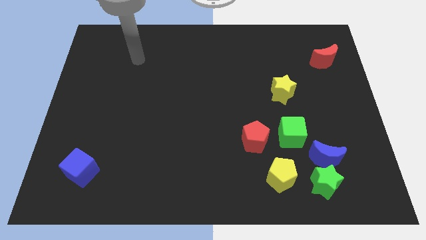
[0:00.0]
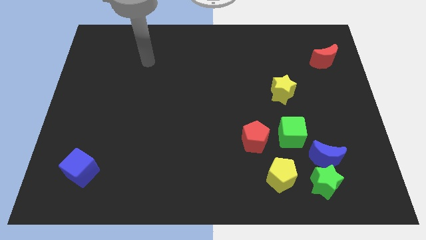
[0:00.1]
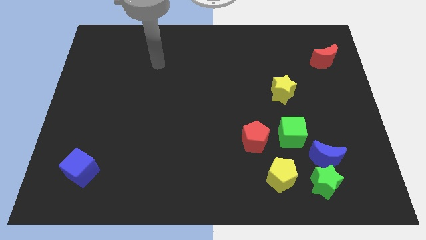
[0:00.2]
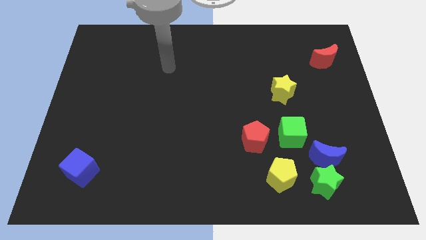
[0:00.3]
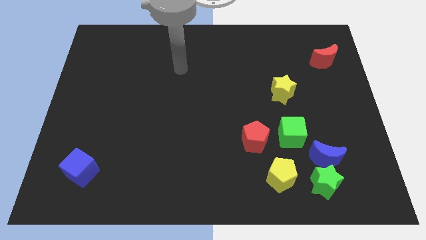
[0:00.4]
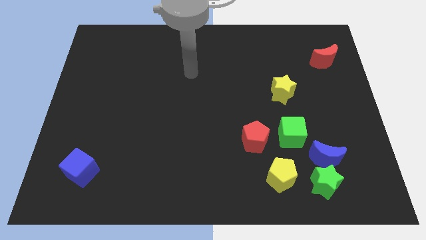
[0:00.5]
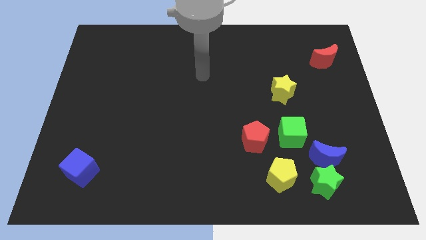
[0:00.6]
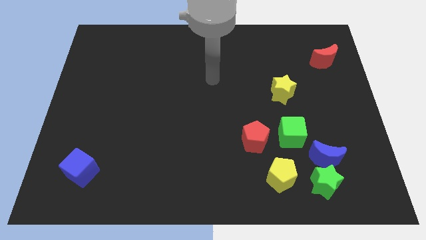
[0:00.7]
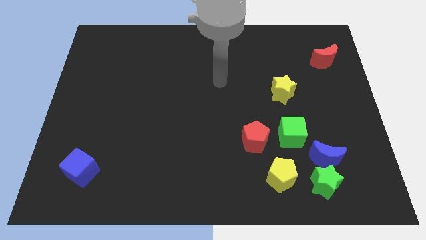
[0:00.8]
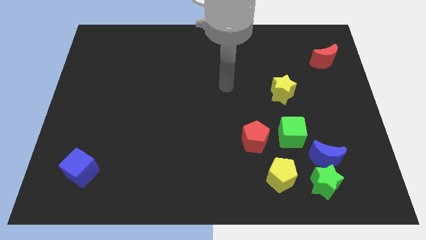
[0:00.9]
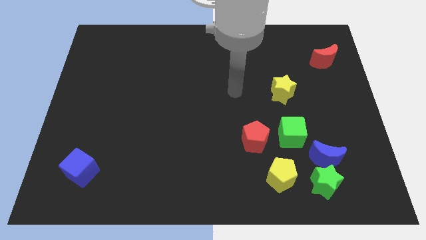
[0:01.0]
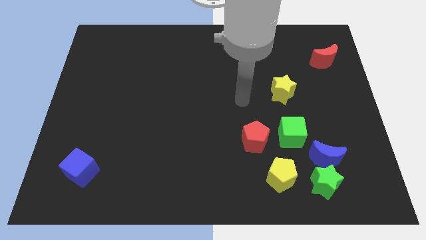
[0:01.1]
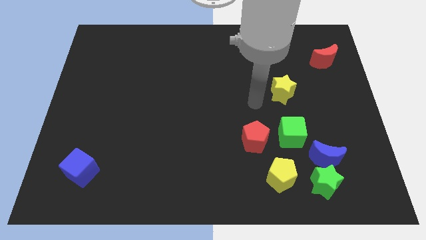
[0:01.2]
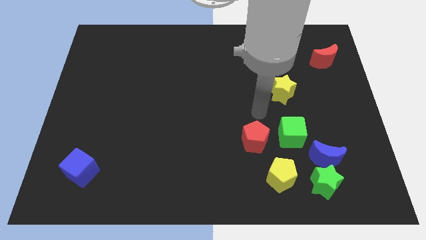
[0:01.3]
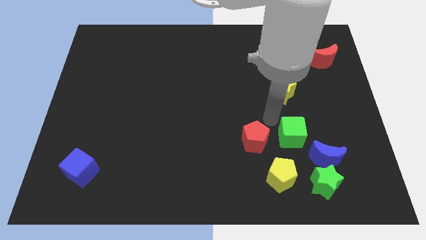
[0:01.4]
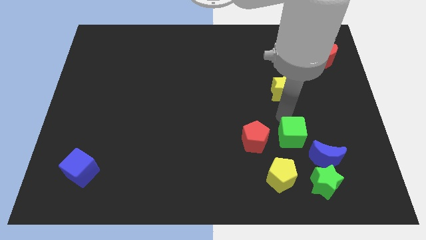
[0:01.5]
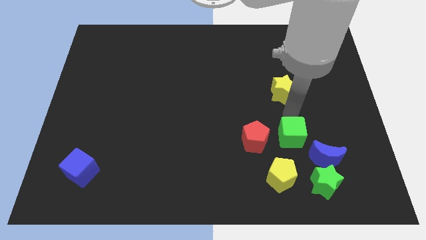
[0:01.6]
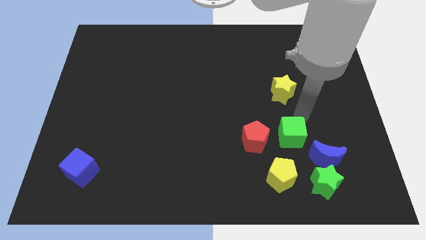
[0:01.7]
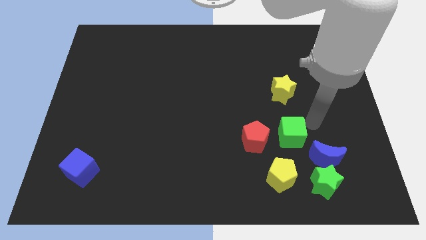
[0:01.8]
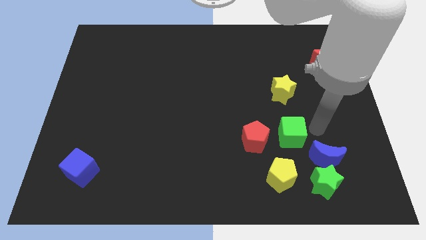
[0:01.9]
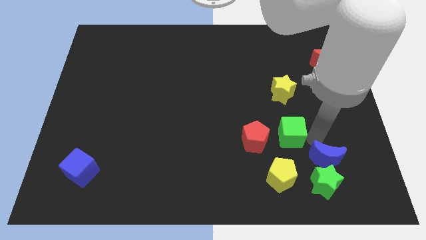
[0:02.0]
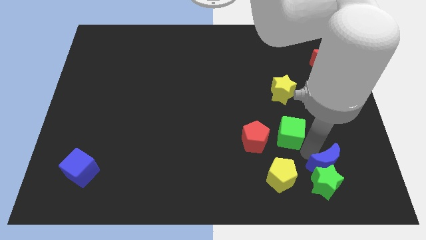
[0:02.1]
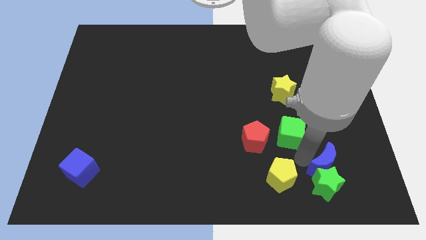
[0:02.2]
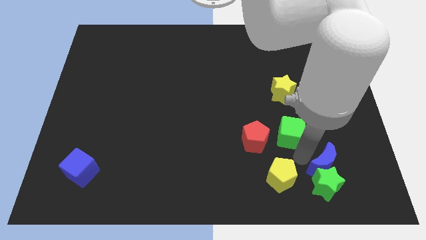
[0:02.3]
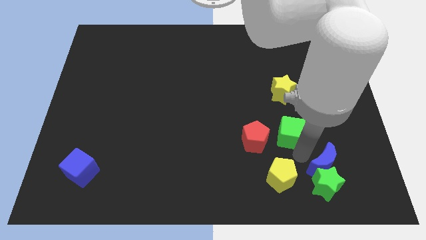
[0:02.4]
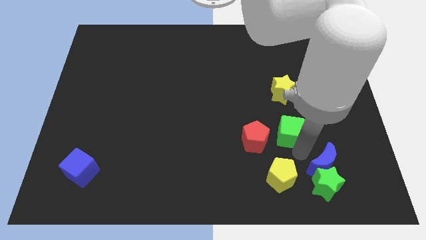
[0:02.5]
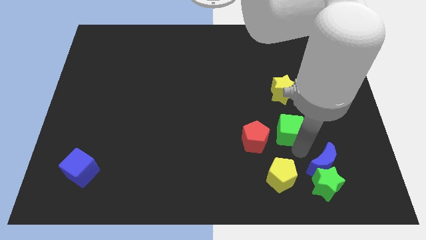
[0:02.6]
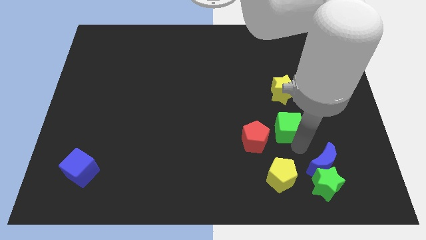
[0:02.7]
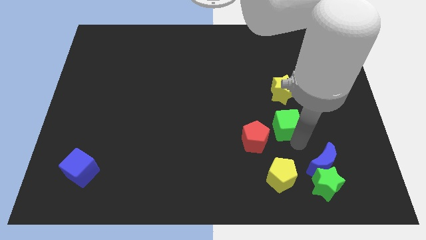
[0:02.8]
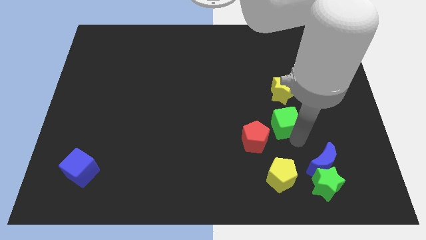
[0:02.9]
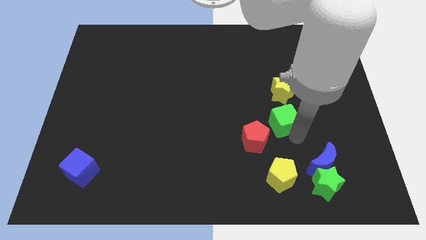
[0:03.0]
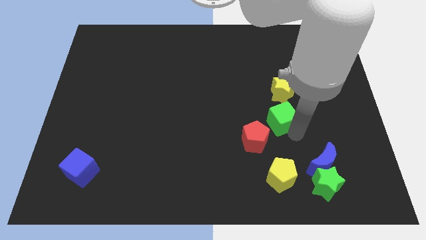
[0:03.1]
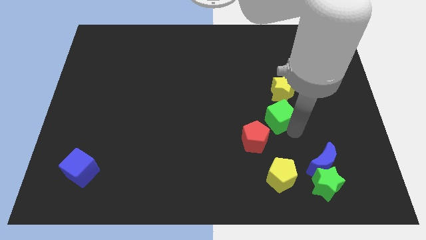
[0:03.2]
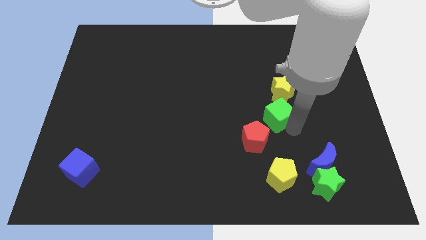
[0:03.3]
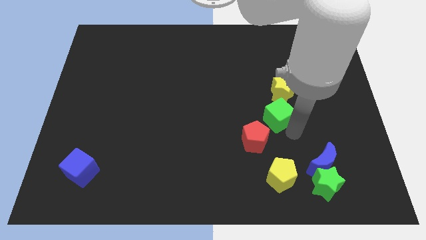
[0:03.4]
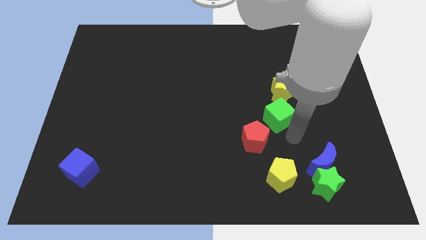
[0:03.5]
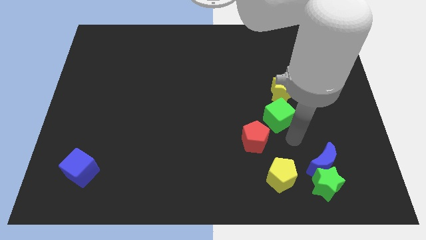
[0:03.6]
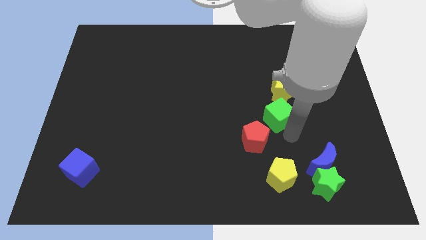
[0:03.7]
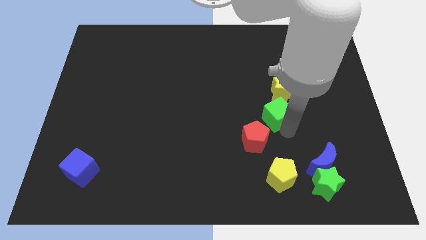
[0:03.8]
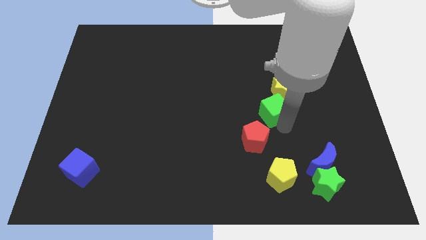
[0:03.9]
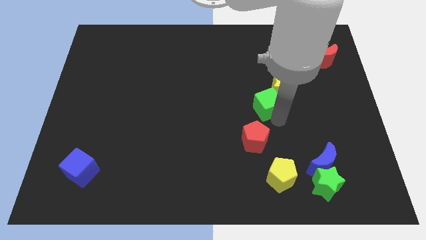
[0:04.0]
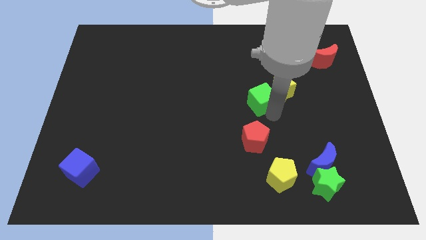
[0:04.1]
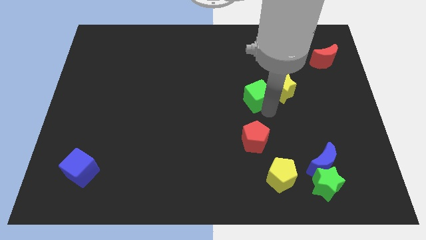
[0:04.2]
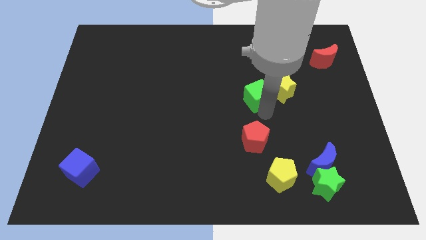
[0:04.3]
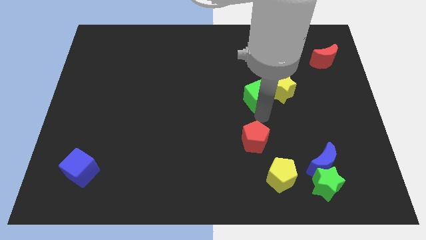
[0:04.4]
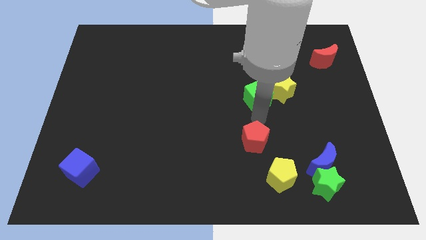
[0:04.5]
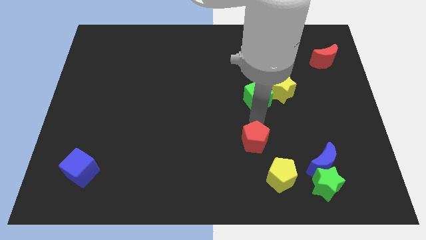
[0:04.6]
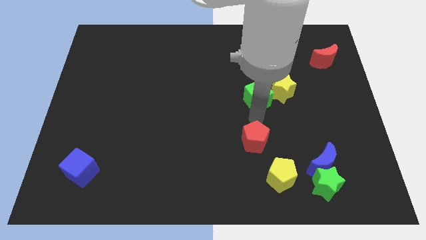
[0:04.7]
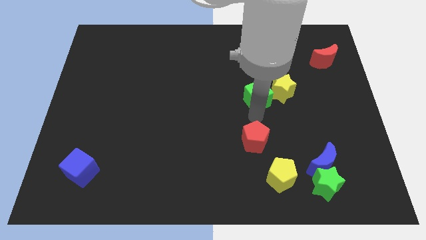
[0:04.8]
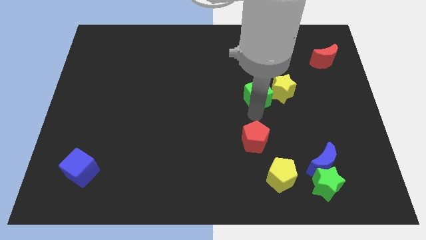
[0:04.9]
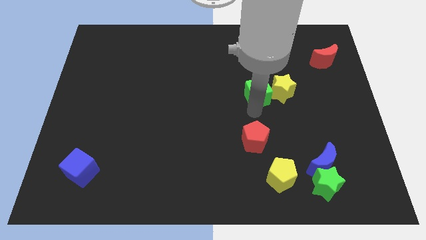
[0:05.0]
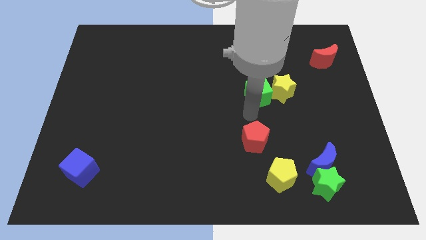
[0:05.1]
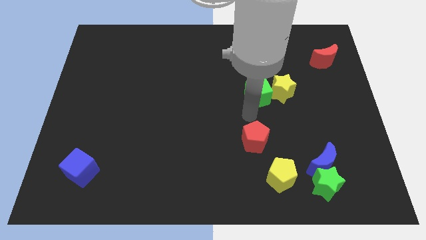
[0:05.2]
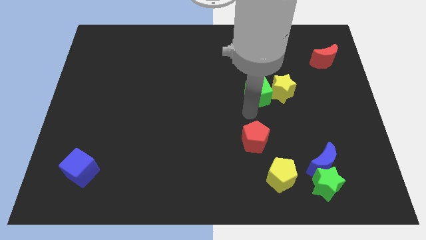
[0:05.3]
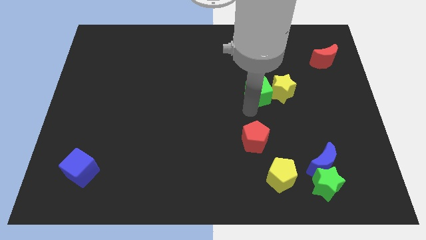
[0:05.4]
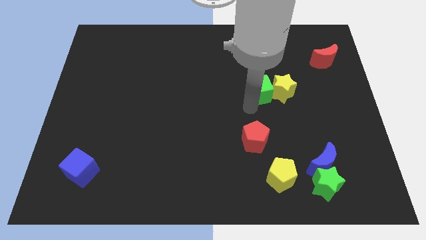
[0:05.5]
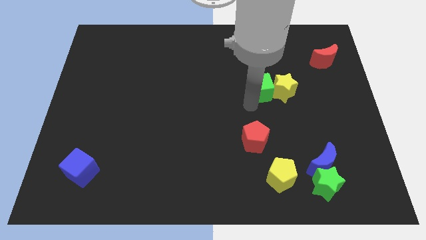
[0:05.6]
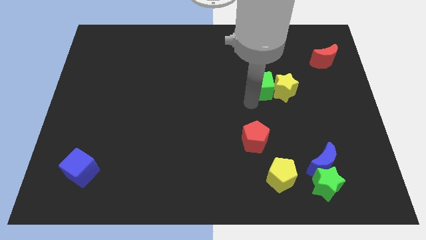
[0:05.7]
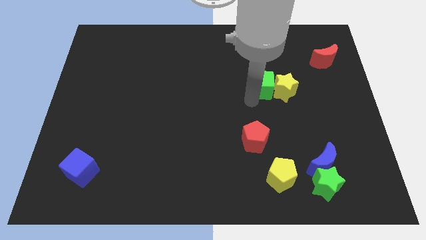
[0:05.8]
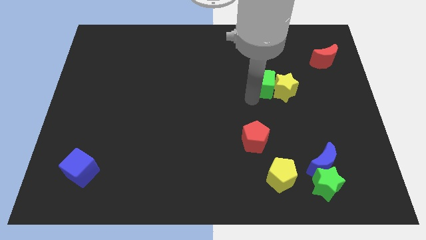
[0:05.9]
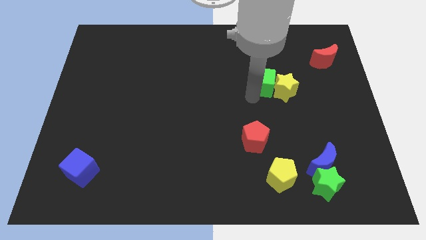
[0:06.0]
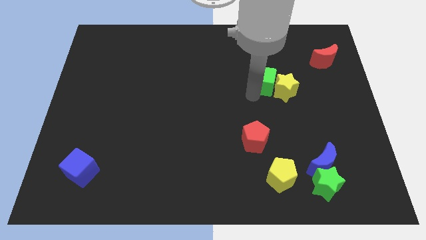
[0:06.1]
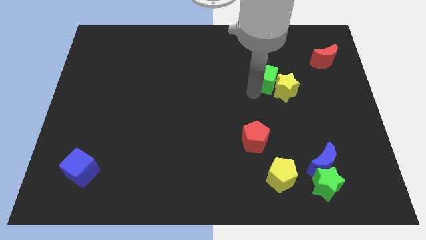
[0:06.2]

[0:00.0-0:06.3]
move the green cube to the top of the yellow star

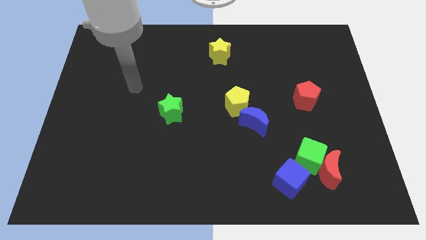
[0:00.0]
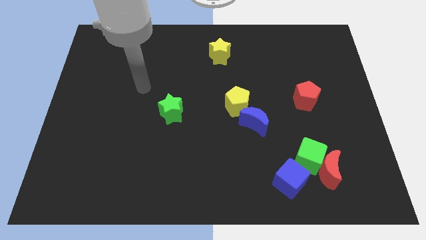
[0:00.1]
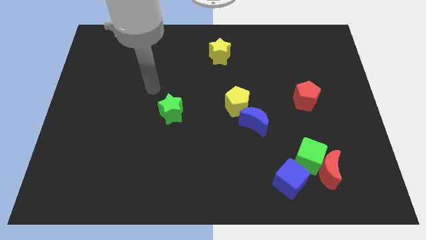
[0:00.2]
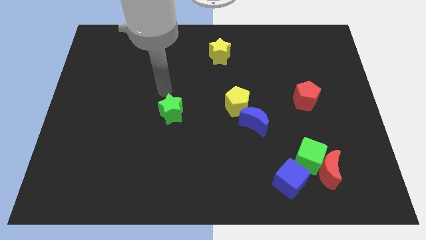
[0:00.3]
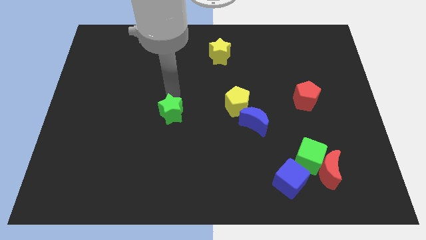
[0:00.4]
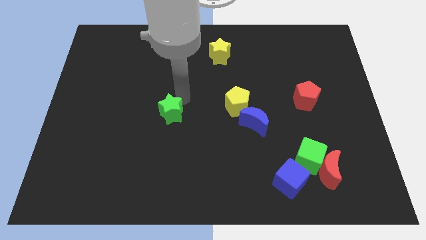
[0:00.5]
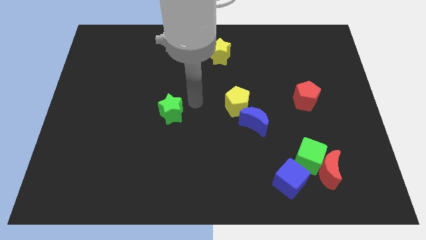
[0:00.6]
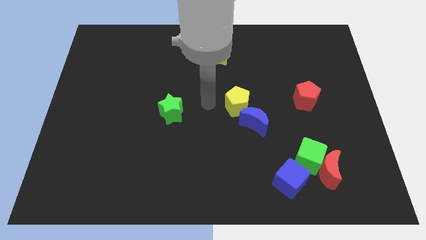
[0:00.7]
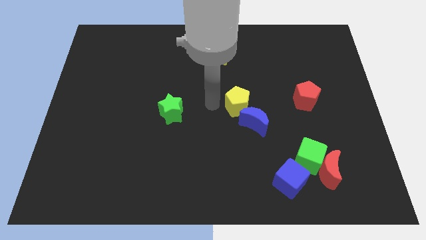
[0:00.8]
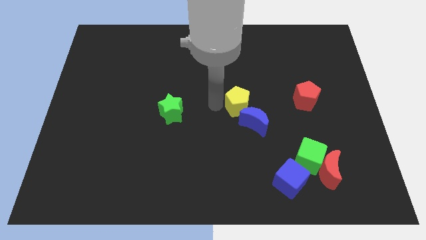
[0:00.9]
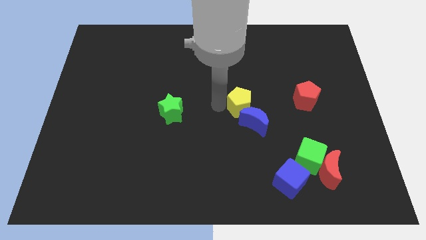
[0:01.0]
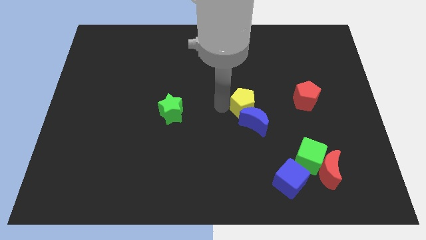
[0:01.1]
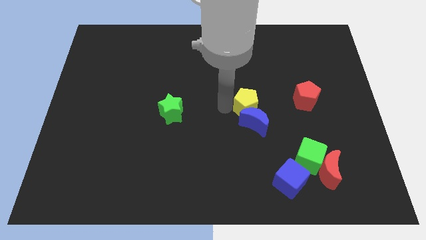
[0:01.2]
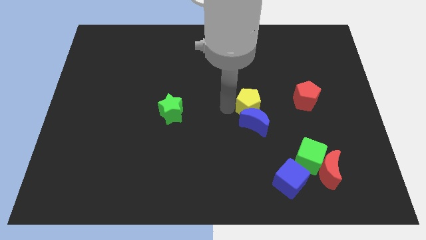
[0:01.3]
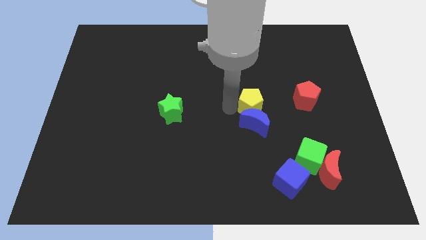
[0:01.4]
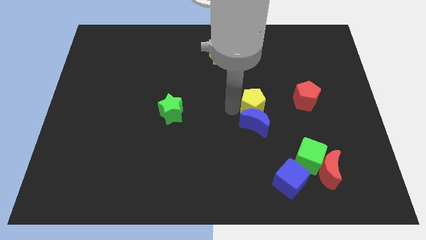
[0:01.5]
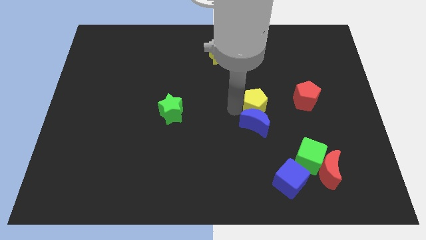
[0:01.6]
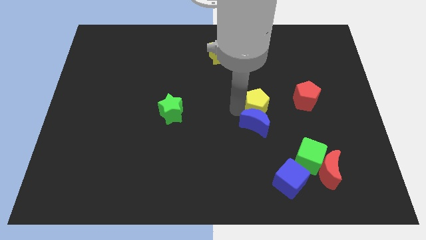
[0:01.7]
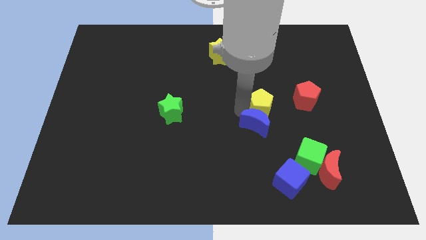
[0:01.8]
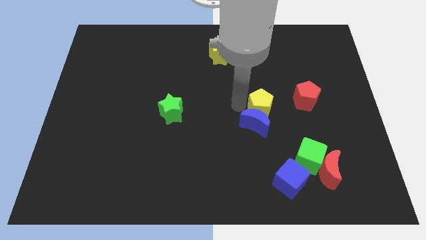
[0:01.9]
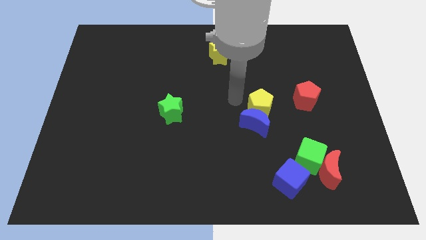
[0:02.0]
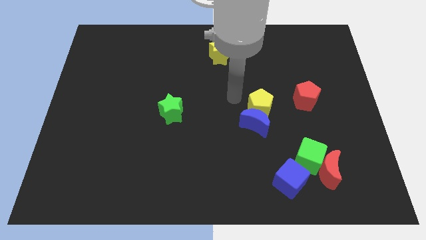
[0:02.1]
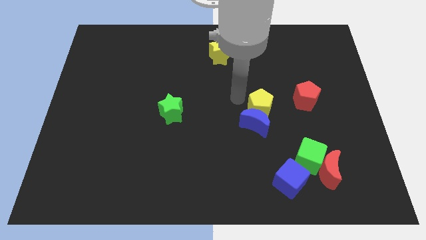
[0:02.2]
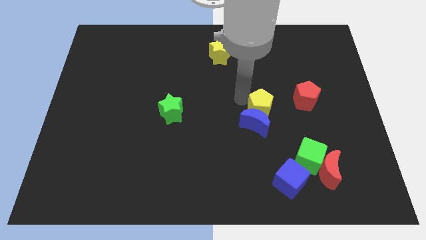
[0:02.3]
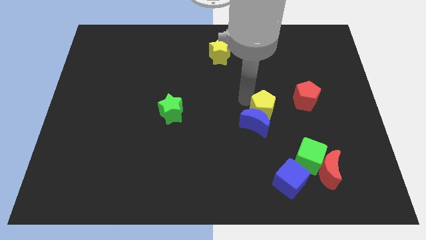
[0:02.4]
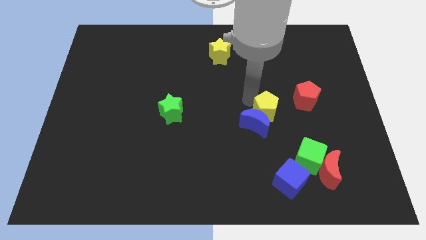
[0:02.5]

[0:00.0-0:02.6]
push the yellow pentagon to the right of the blue moon
